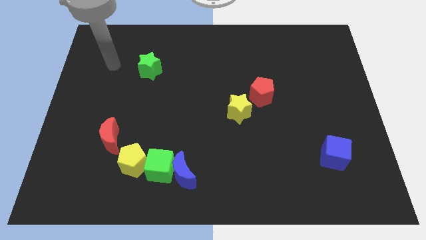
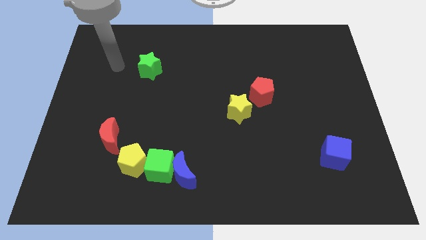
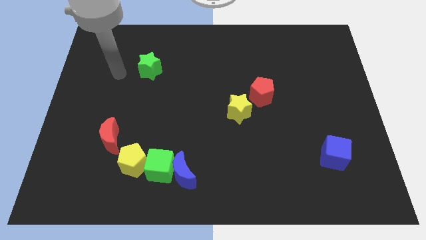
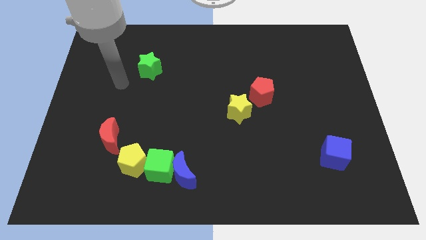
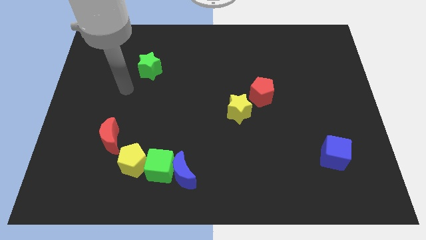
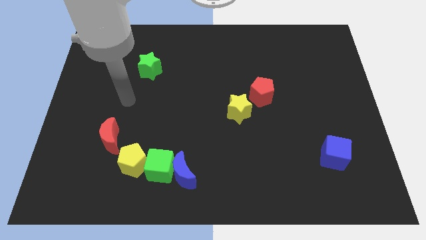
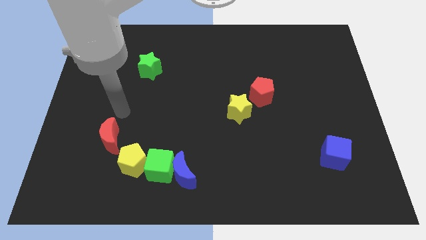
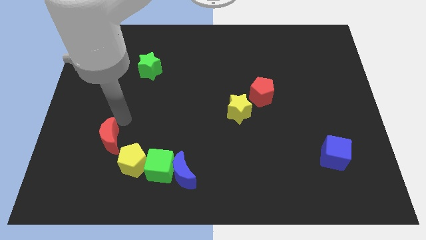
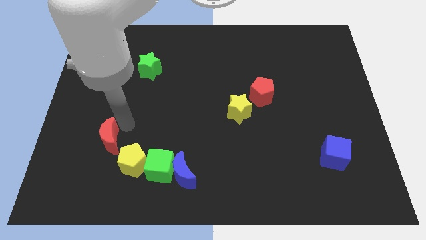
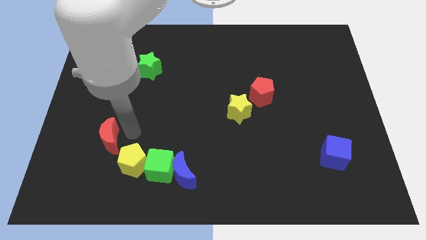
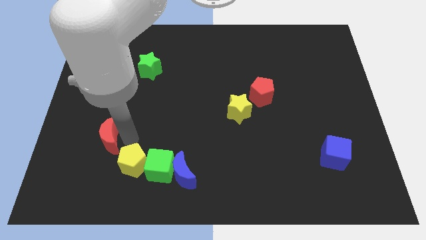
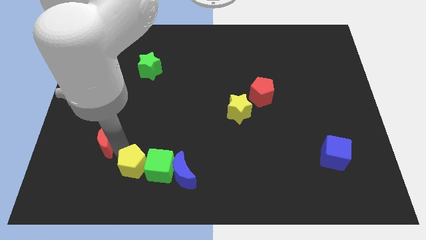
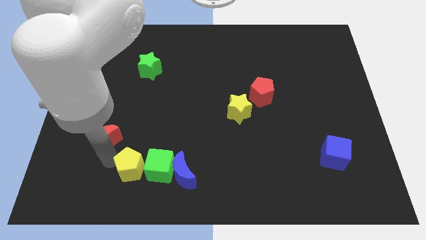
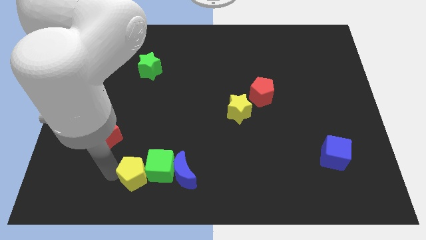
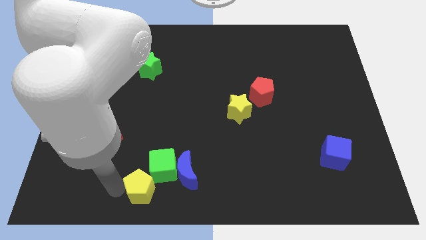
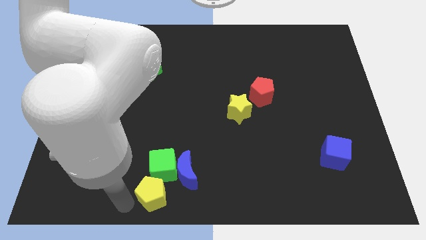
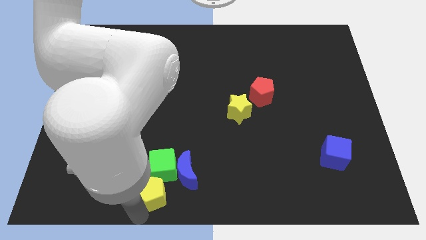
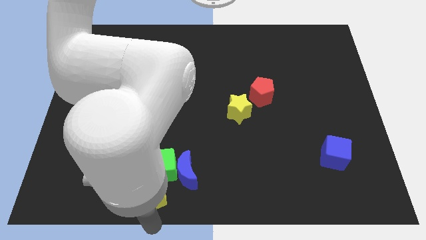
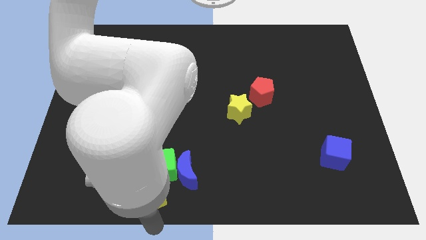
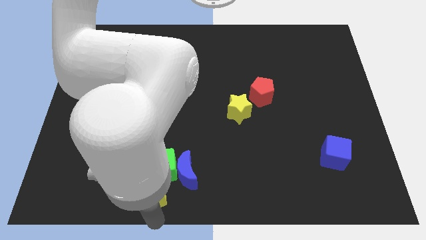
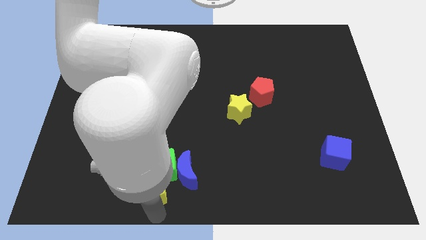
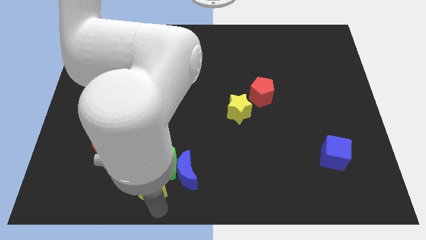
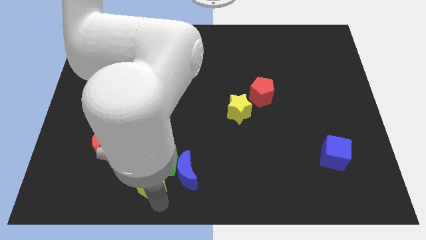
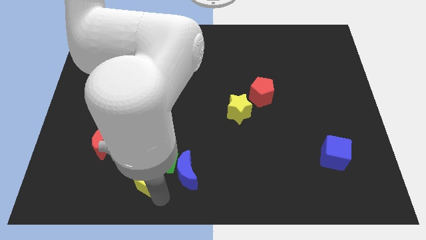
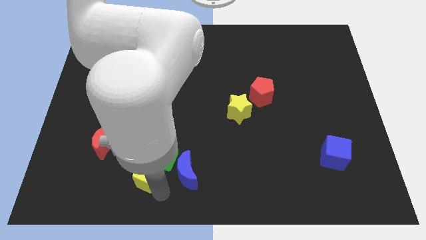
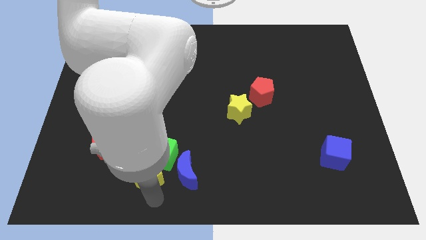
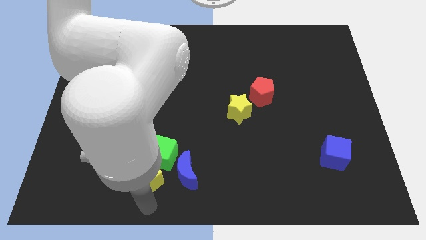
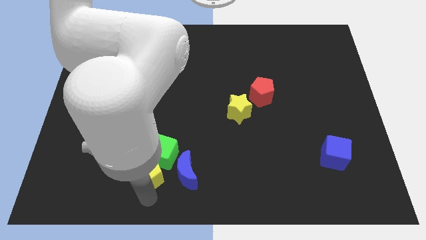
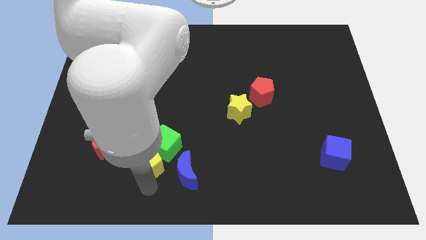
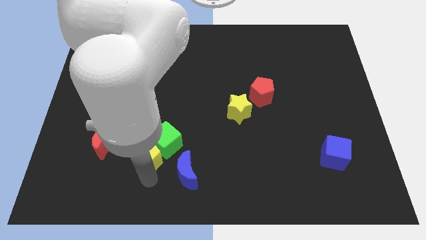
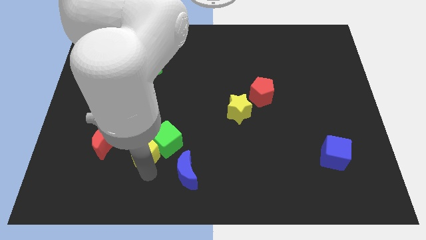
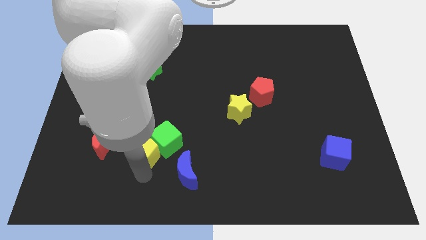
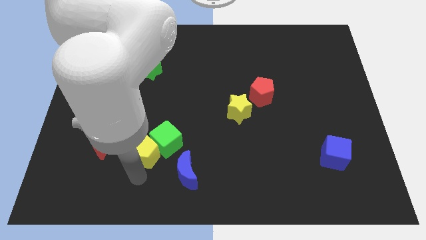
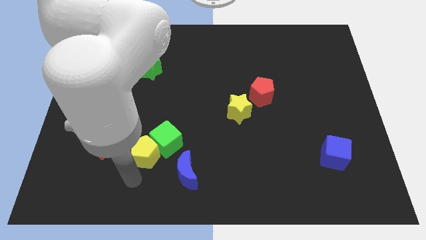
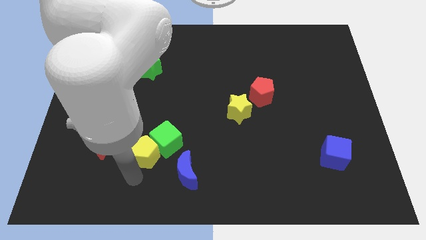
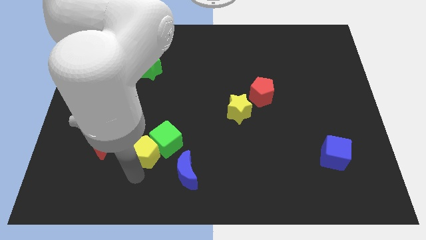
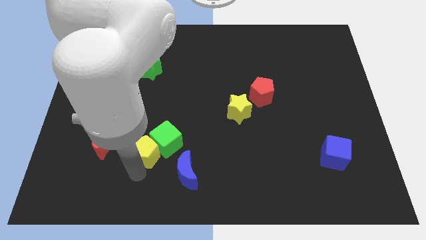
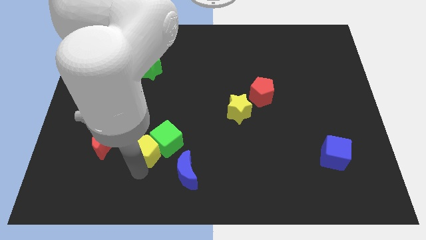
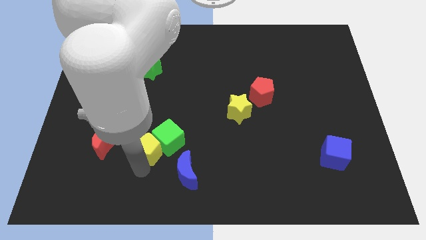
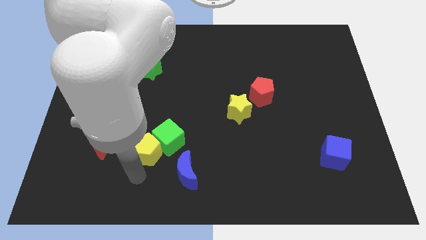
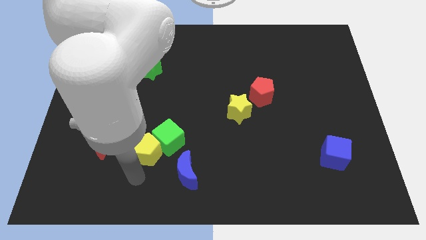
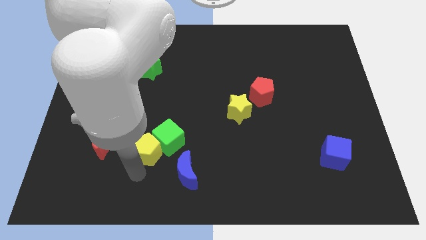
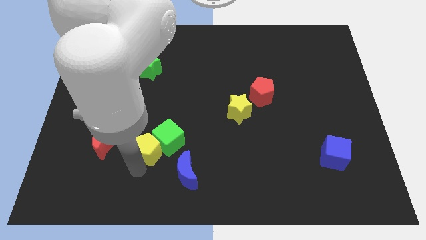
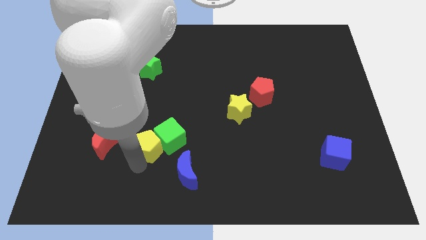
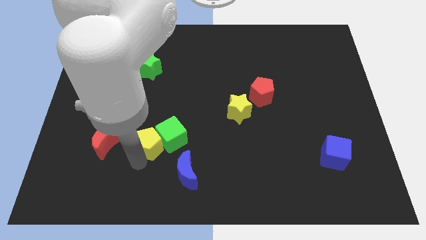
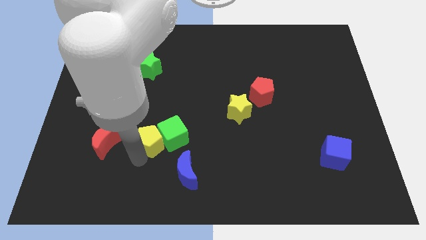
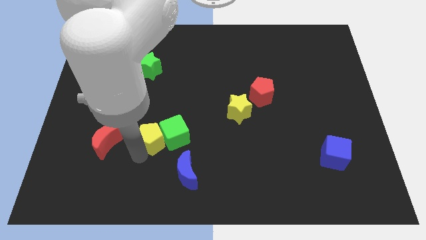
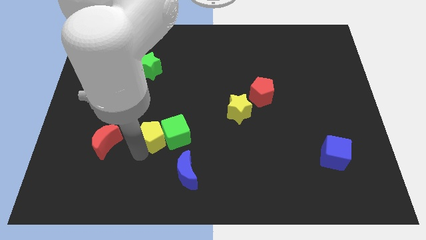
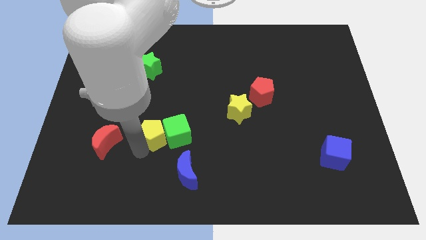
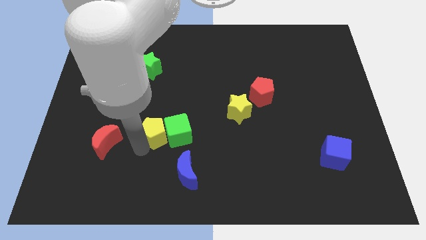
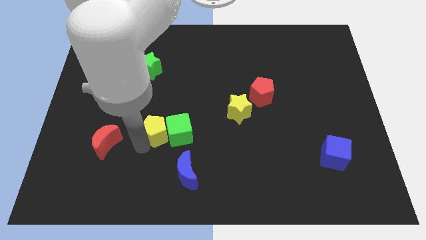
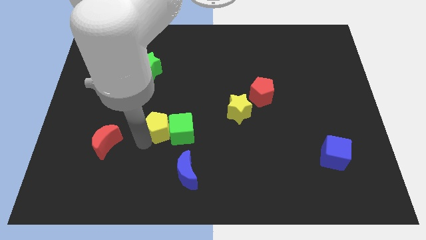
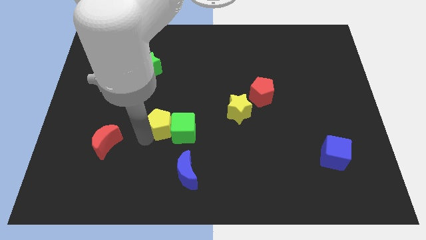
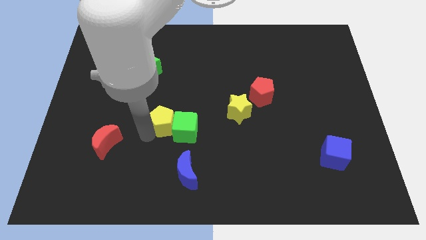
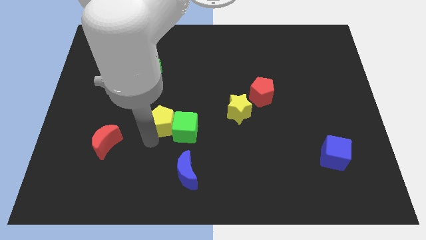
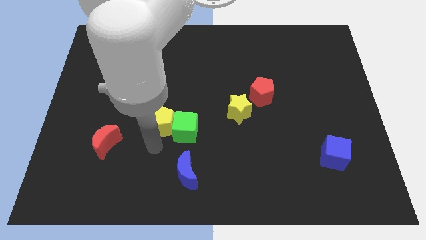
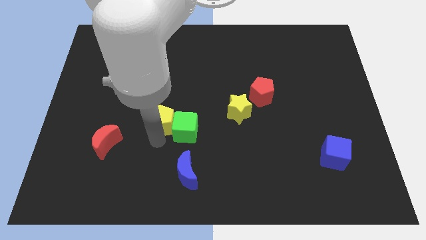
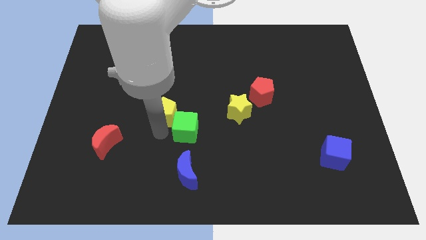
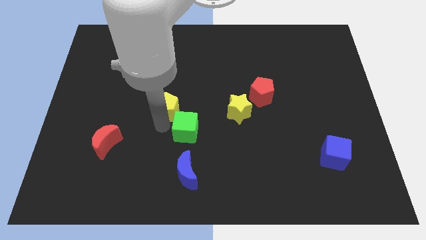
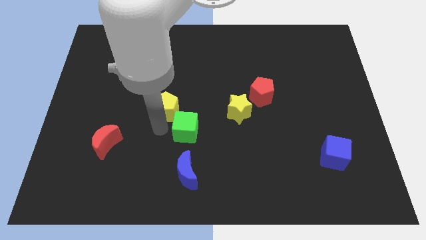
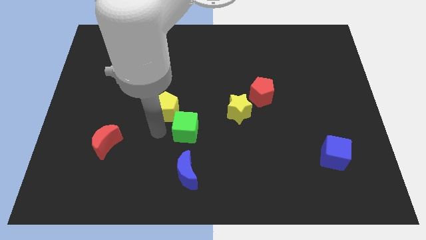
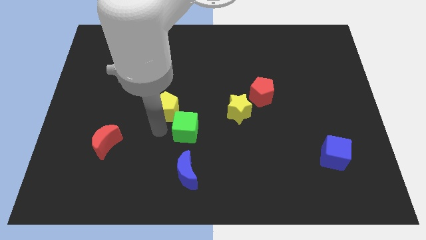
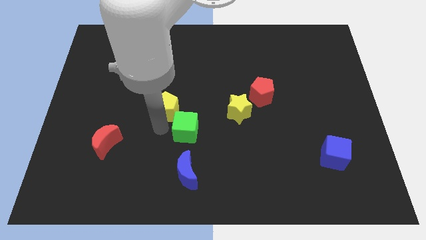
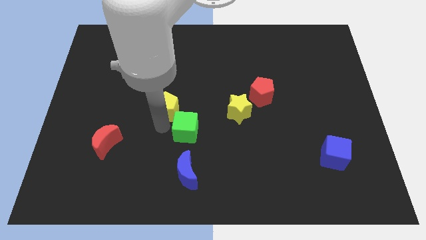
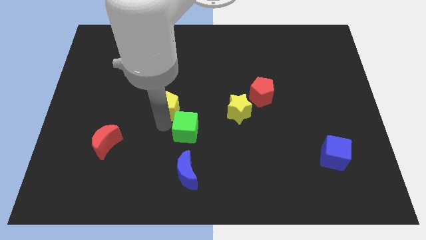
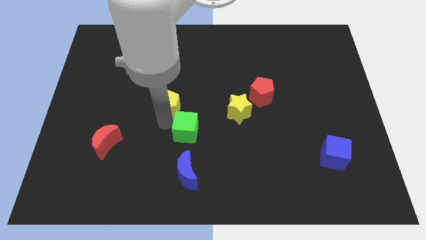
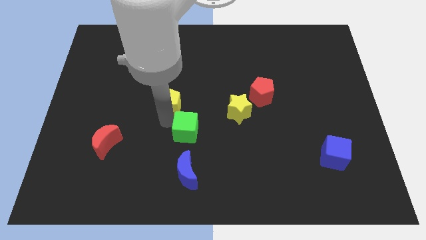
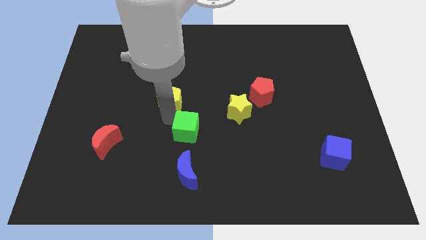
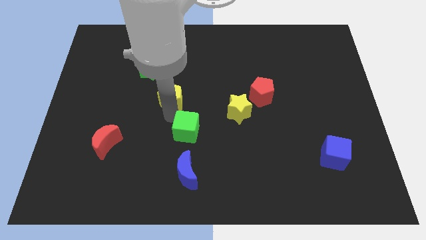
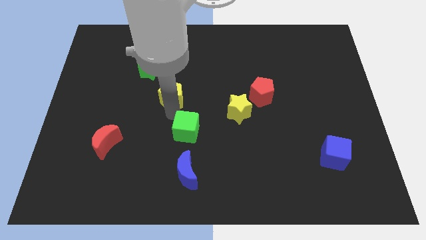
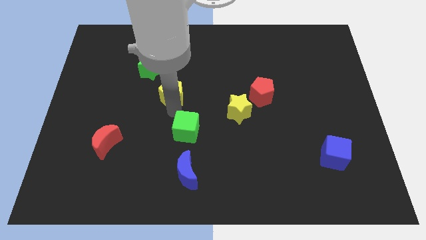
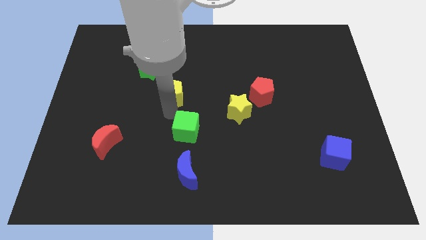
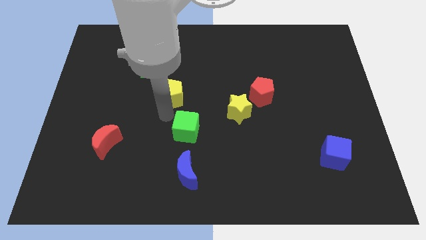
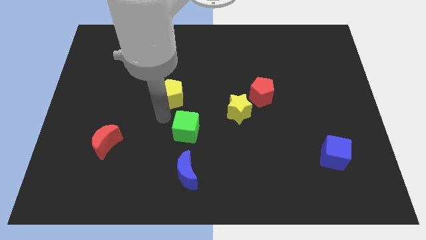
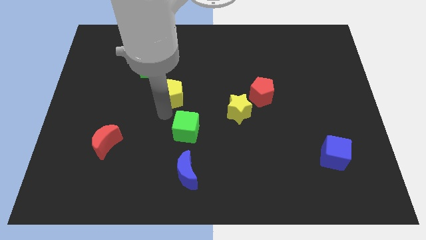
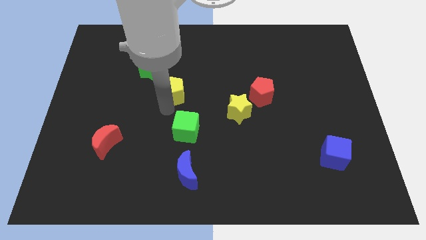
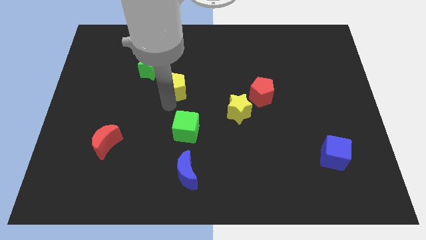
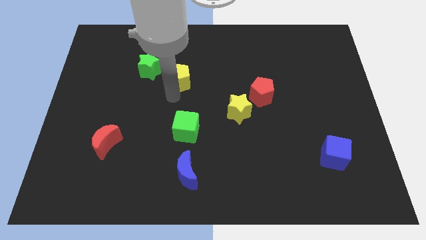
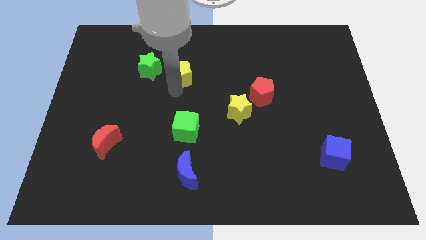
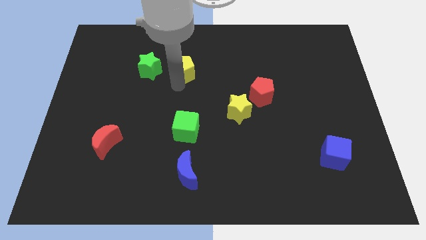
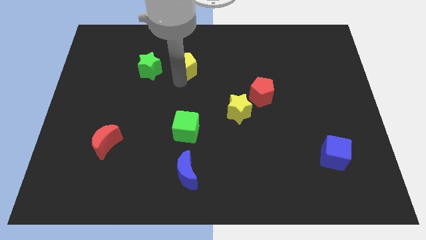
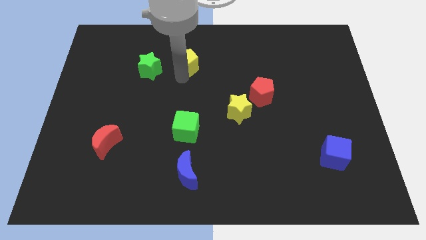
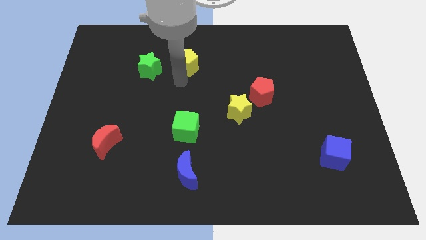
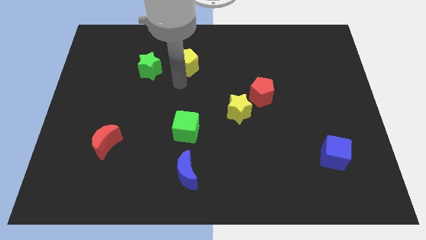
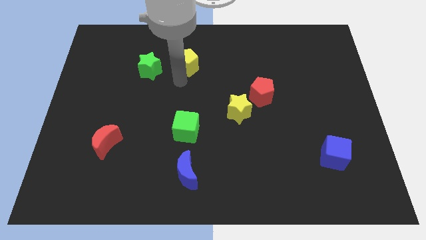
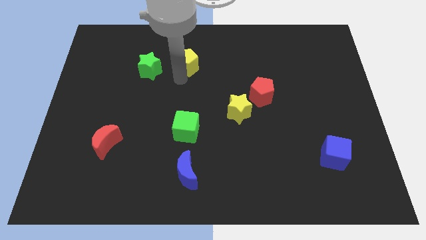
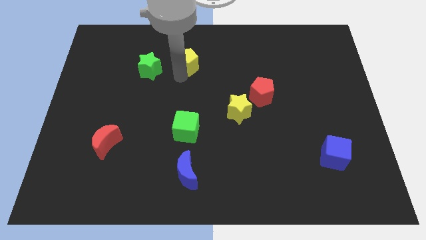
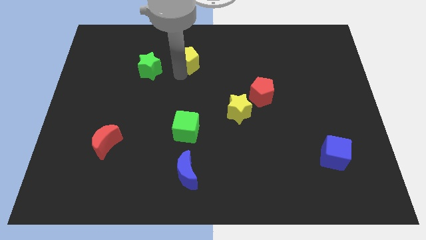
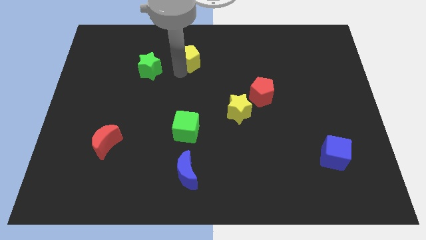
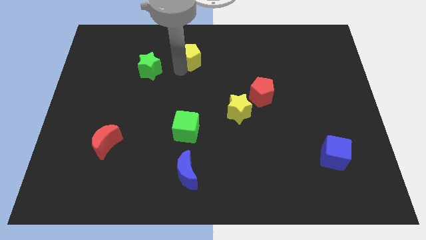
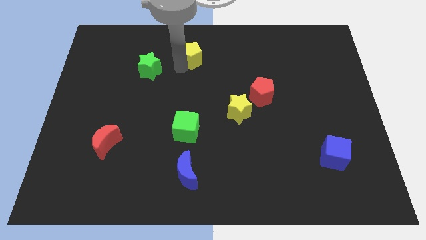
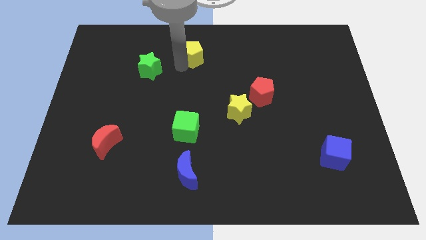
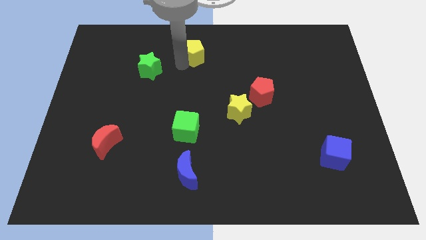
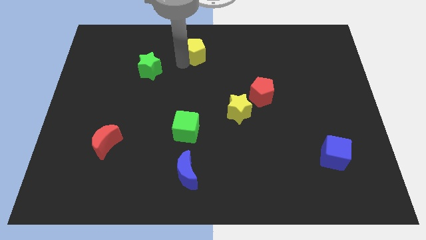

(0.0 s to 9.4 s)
put the yellow pentagon to the top side
